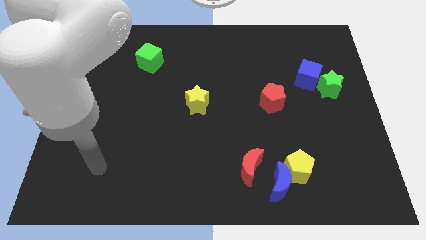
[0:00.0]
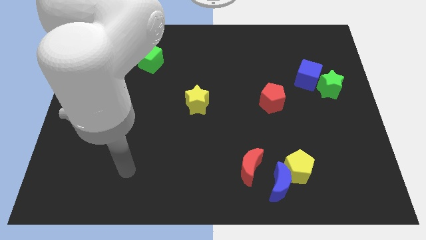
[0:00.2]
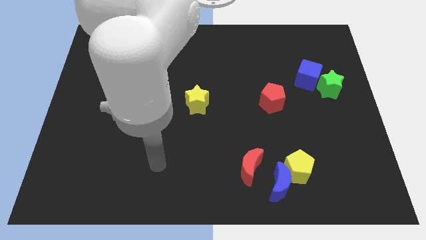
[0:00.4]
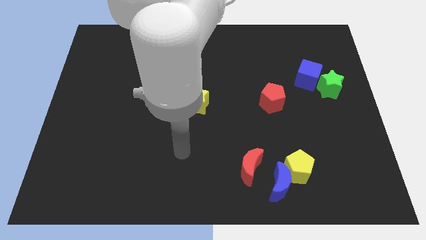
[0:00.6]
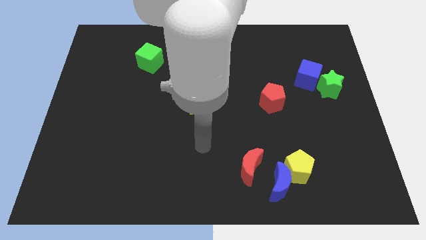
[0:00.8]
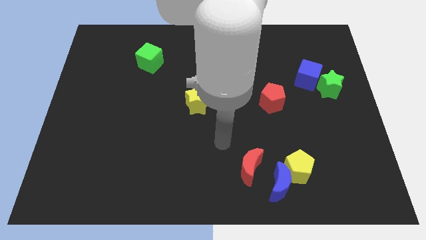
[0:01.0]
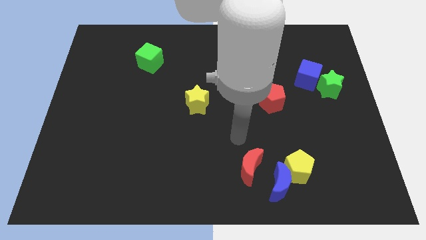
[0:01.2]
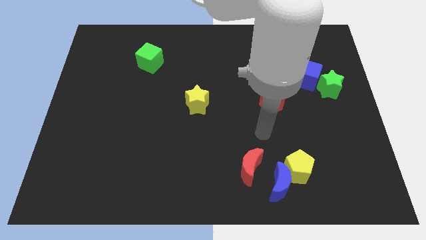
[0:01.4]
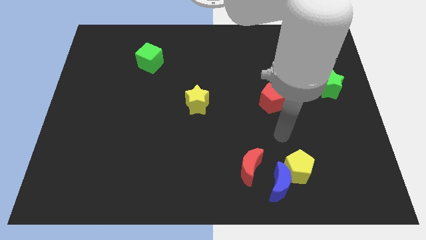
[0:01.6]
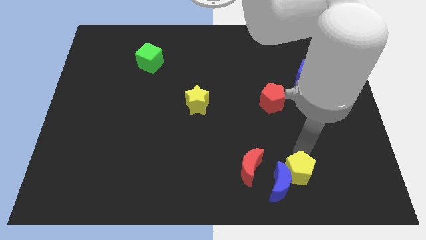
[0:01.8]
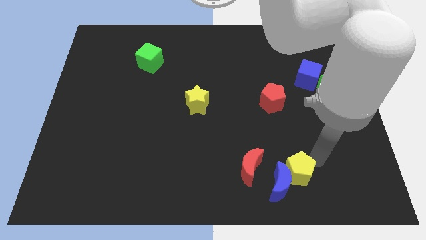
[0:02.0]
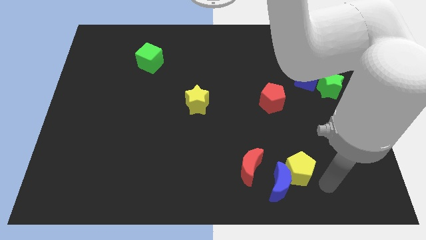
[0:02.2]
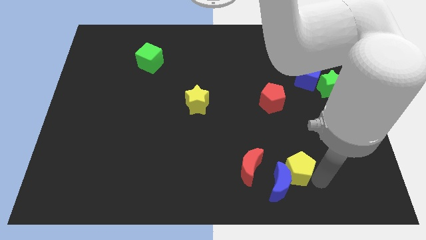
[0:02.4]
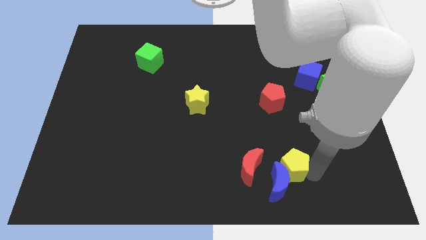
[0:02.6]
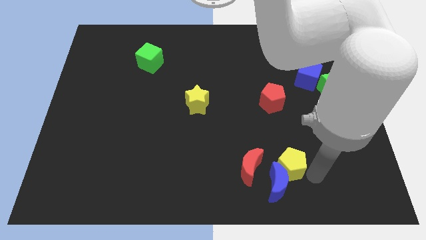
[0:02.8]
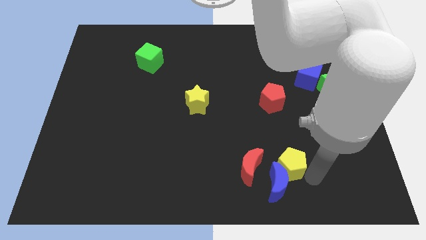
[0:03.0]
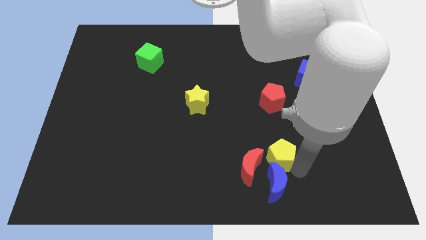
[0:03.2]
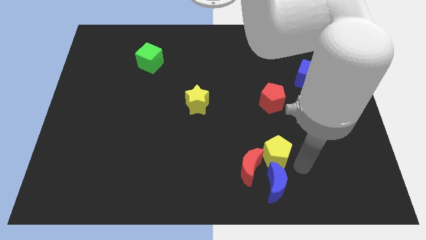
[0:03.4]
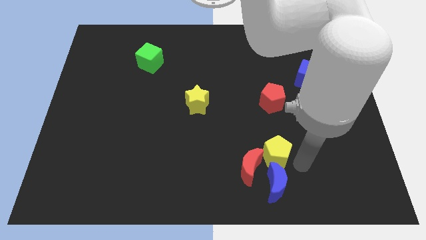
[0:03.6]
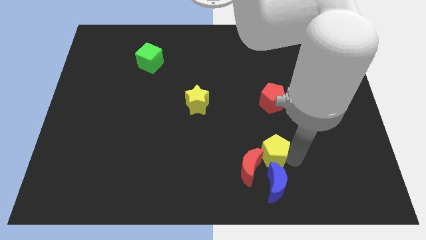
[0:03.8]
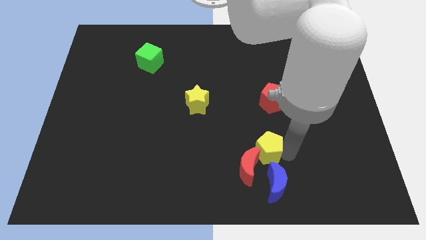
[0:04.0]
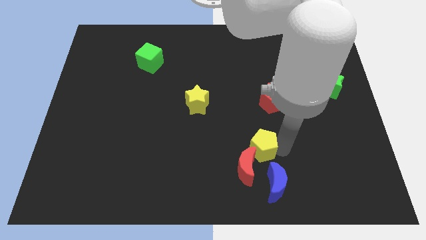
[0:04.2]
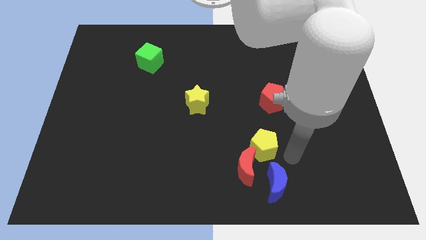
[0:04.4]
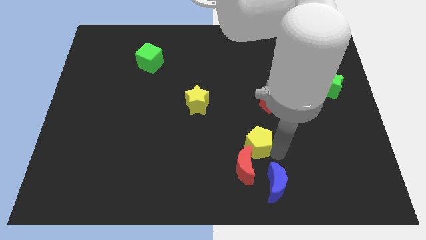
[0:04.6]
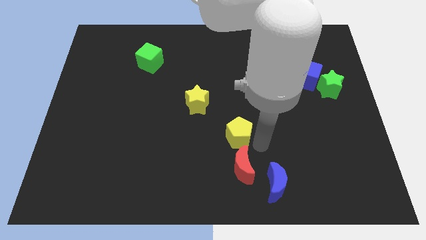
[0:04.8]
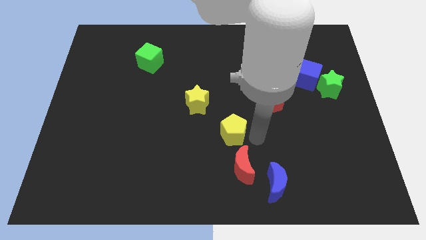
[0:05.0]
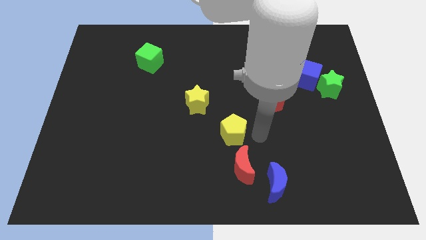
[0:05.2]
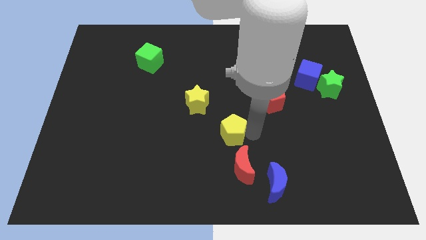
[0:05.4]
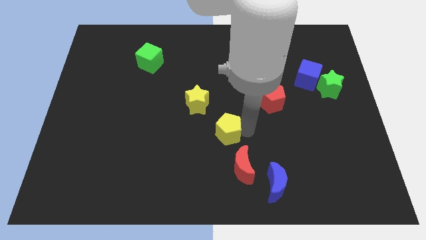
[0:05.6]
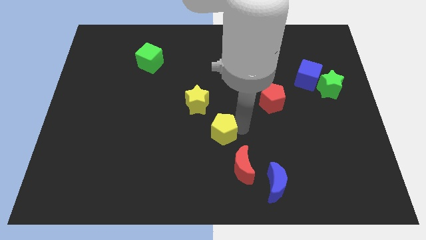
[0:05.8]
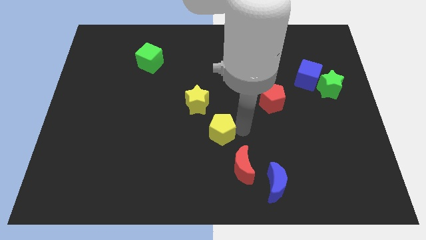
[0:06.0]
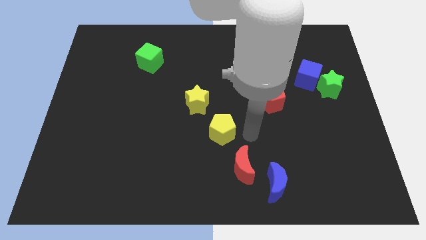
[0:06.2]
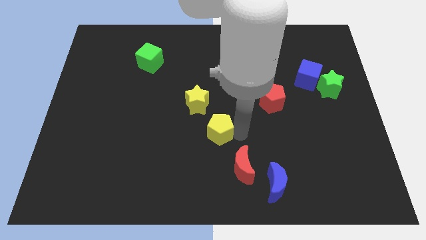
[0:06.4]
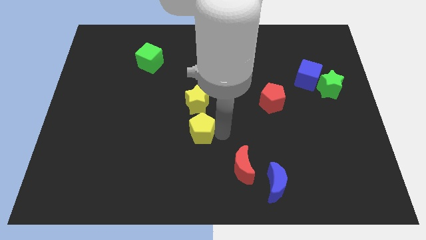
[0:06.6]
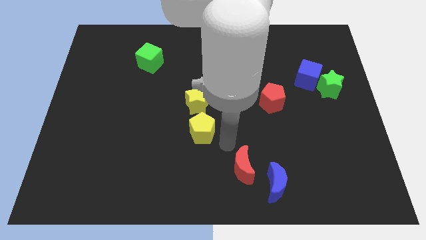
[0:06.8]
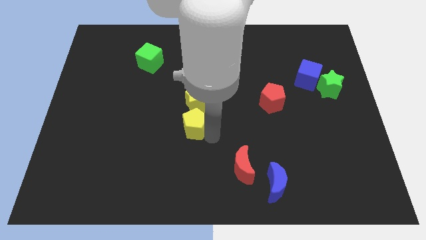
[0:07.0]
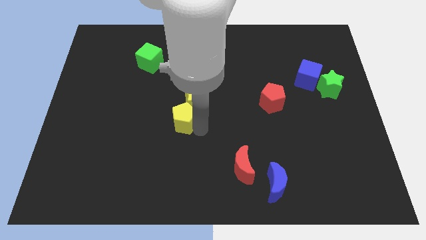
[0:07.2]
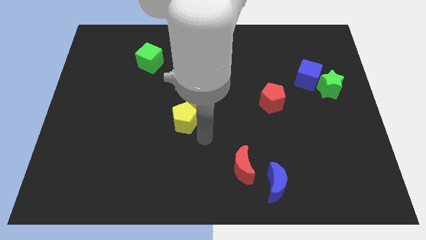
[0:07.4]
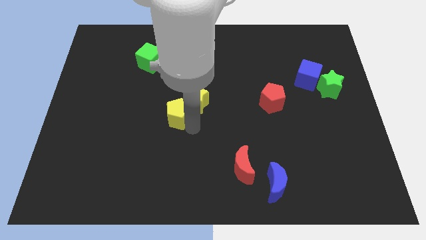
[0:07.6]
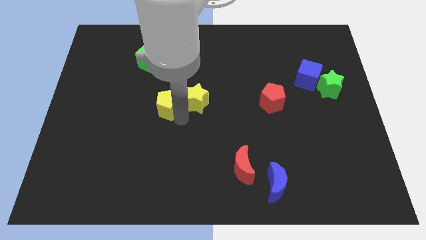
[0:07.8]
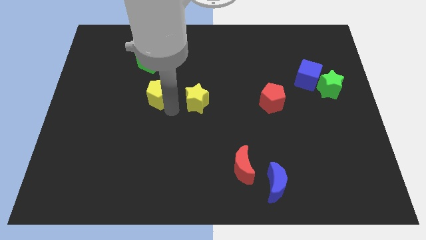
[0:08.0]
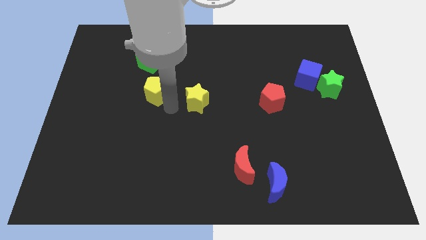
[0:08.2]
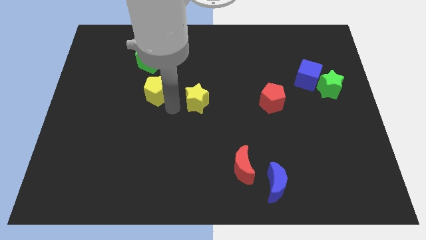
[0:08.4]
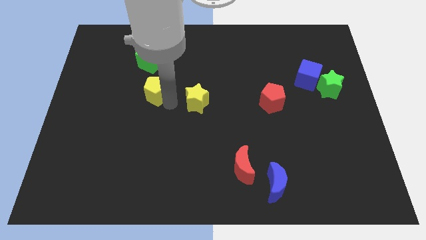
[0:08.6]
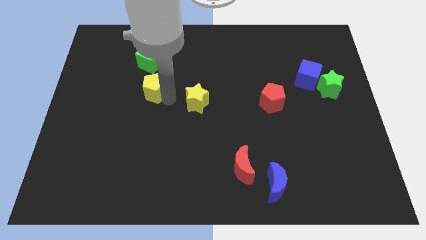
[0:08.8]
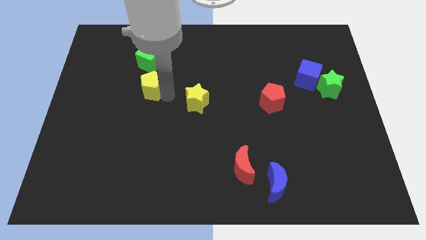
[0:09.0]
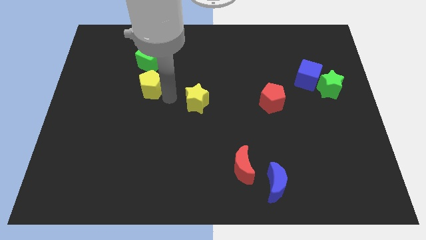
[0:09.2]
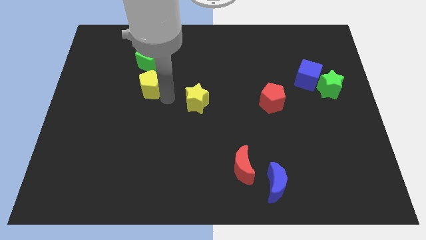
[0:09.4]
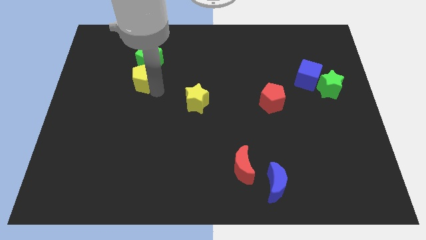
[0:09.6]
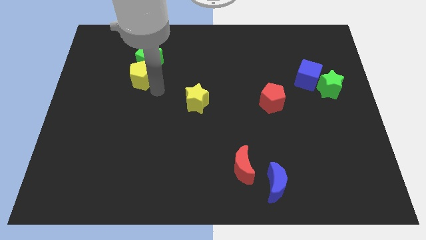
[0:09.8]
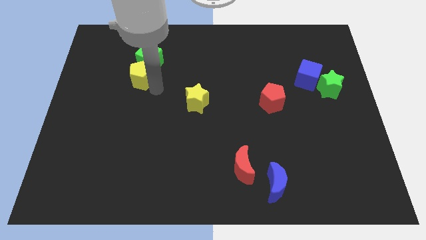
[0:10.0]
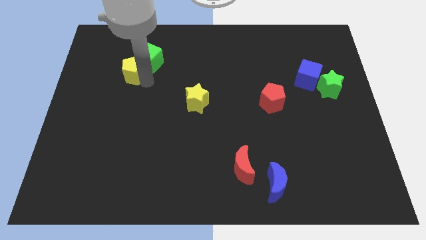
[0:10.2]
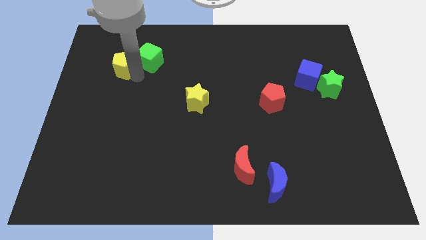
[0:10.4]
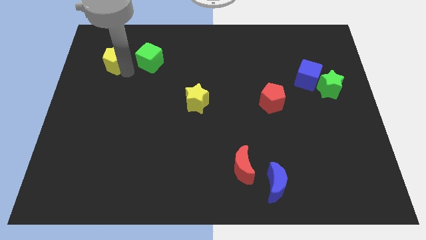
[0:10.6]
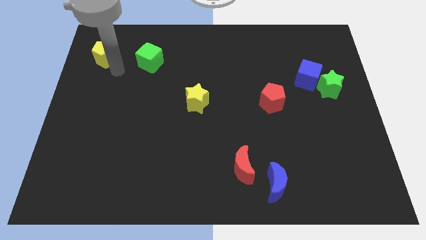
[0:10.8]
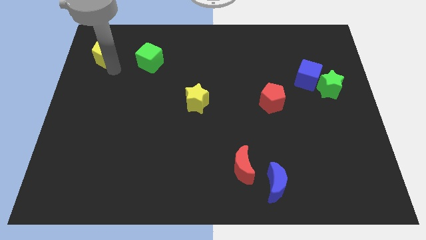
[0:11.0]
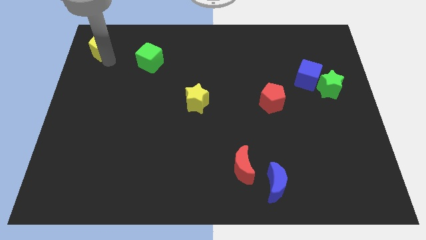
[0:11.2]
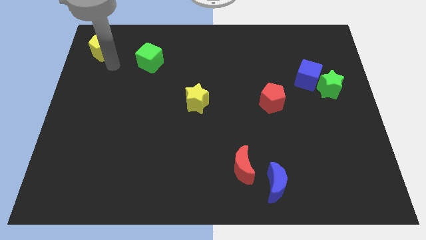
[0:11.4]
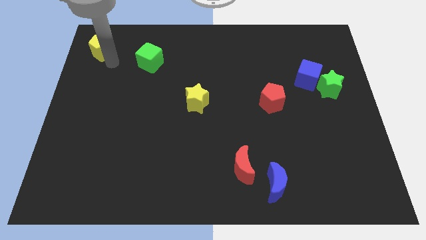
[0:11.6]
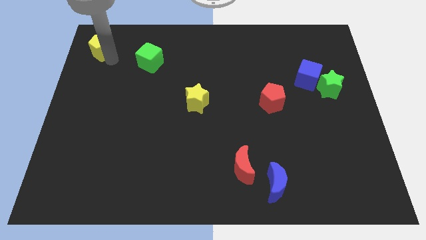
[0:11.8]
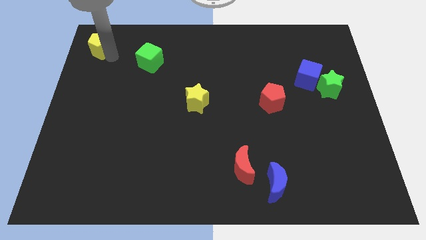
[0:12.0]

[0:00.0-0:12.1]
put the yellow pentagon to the top left
